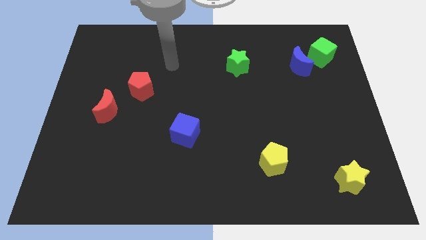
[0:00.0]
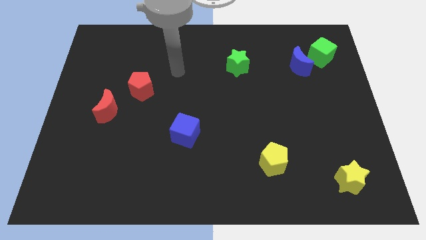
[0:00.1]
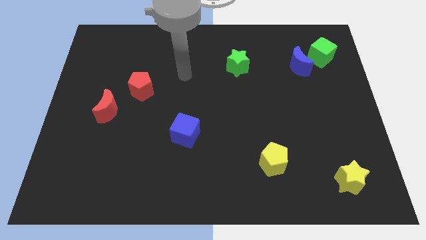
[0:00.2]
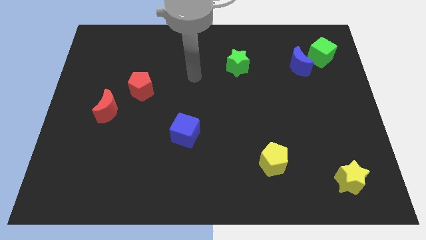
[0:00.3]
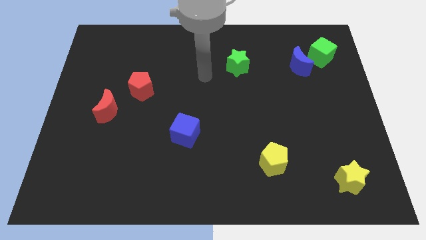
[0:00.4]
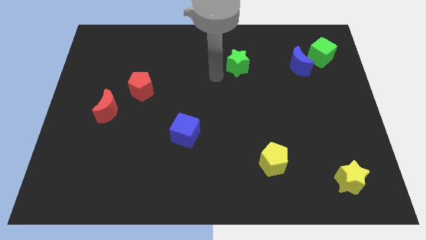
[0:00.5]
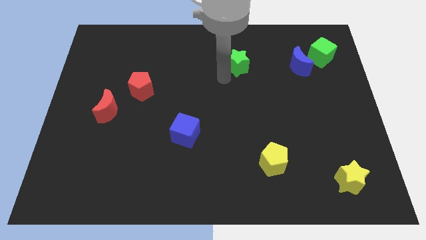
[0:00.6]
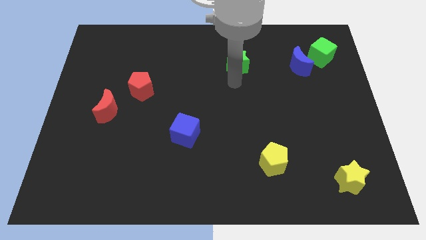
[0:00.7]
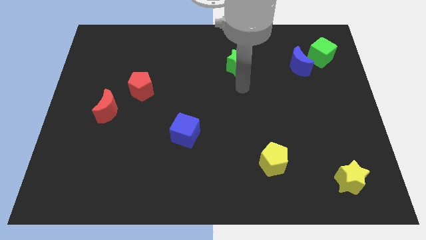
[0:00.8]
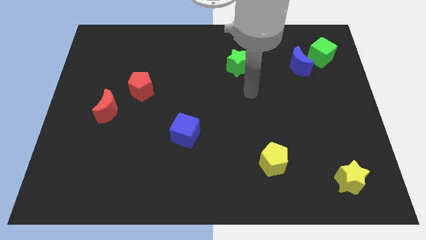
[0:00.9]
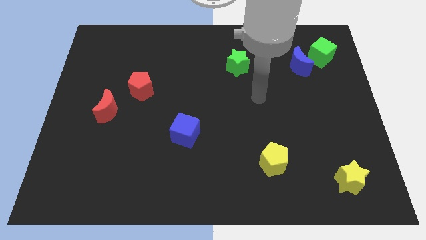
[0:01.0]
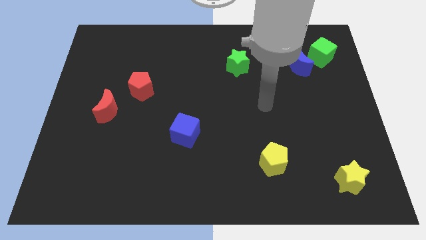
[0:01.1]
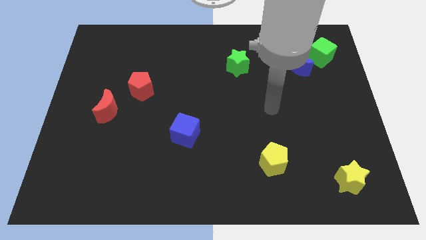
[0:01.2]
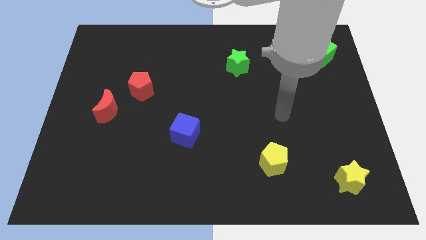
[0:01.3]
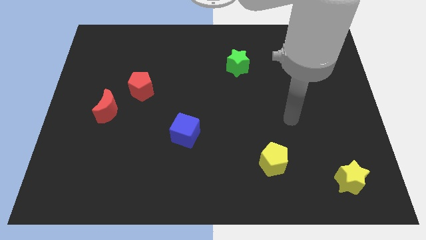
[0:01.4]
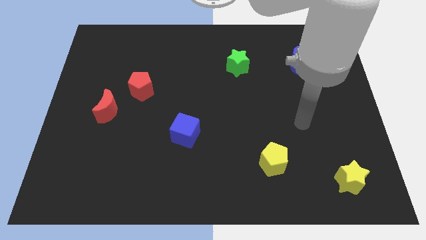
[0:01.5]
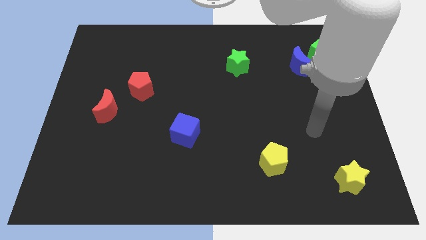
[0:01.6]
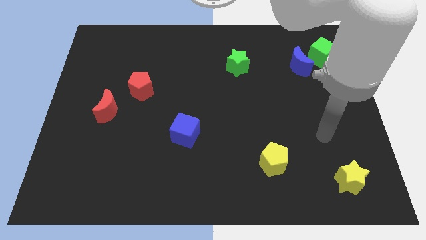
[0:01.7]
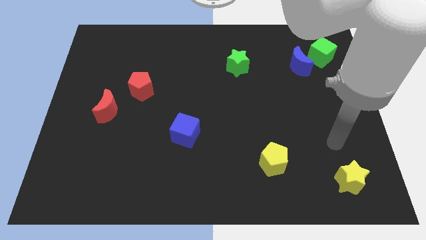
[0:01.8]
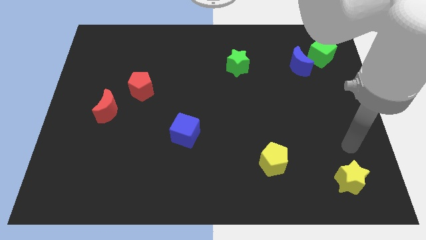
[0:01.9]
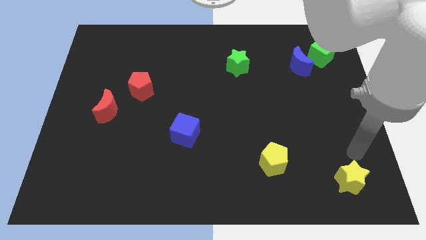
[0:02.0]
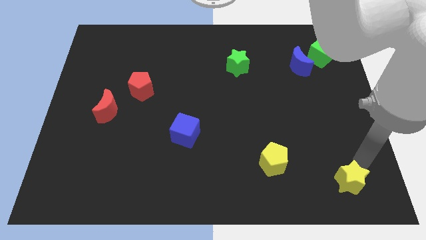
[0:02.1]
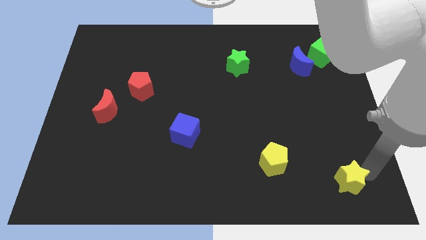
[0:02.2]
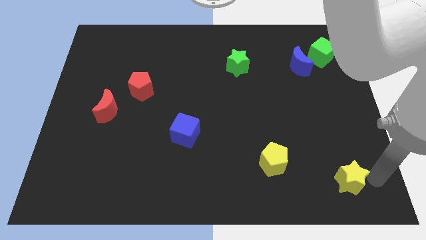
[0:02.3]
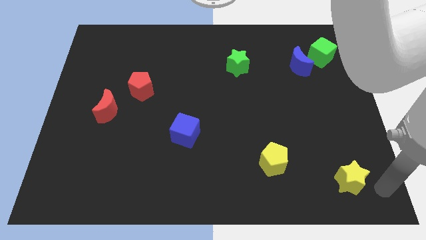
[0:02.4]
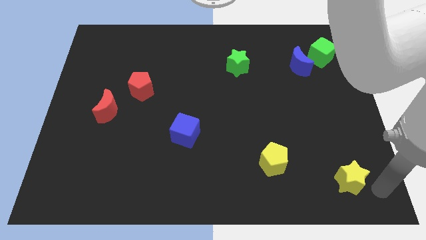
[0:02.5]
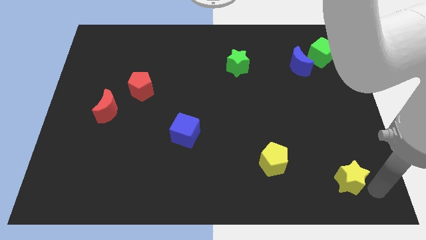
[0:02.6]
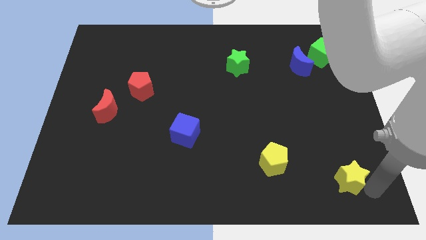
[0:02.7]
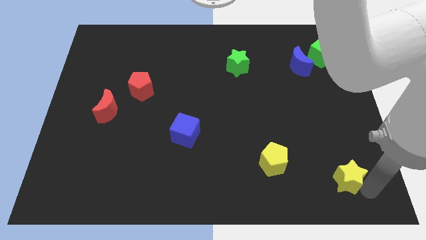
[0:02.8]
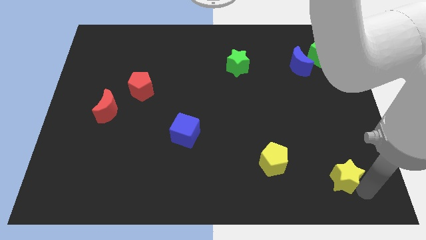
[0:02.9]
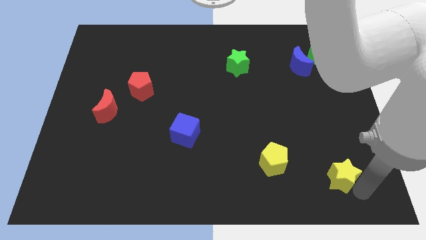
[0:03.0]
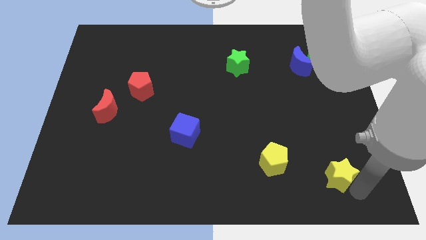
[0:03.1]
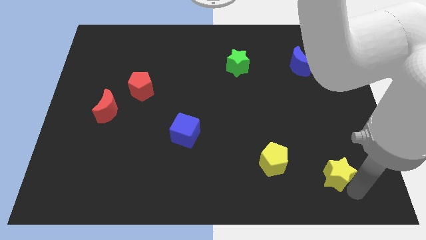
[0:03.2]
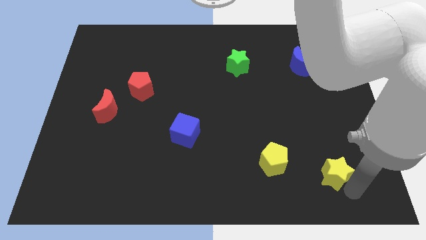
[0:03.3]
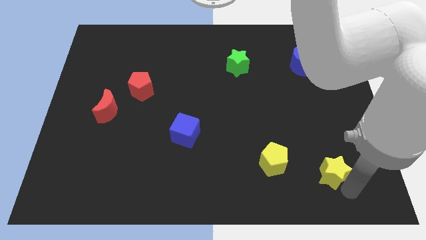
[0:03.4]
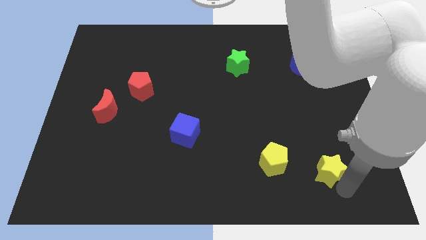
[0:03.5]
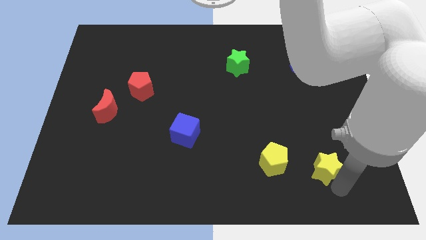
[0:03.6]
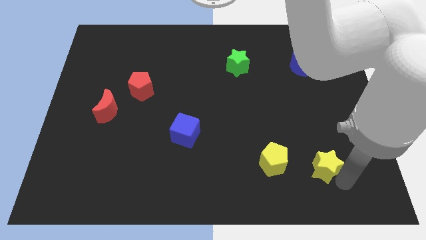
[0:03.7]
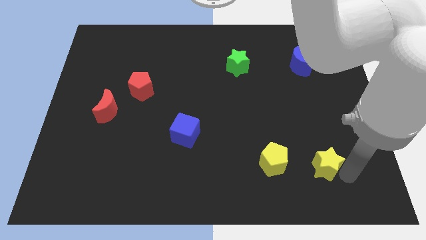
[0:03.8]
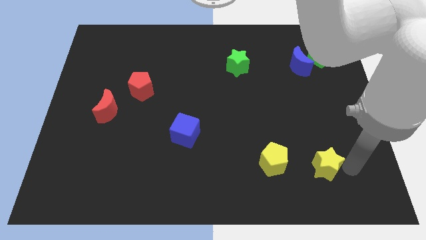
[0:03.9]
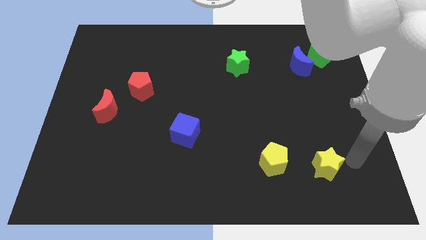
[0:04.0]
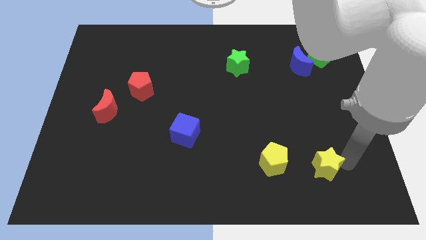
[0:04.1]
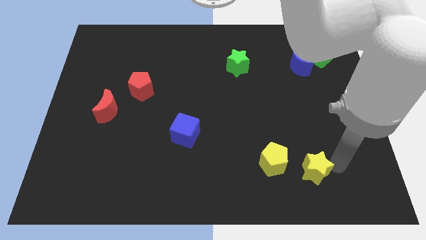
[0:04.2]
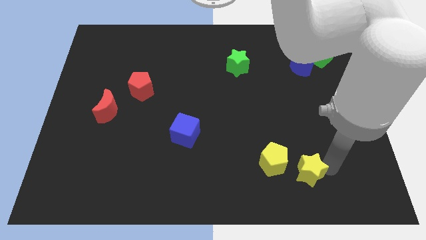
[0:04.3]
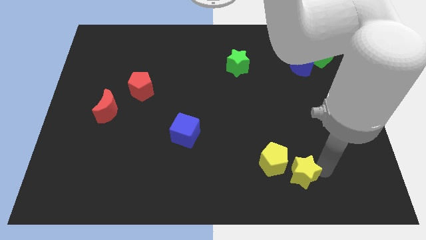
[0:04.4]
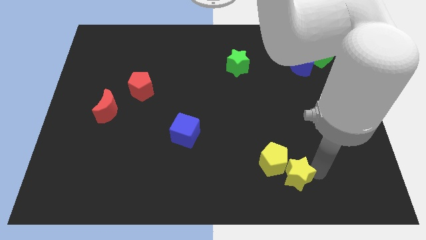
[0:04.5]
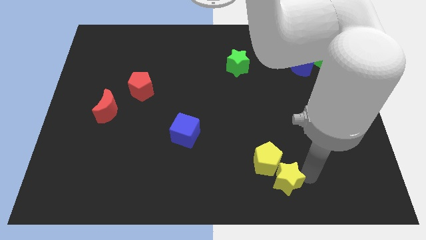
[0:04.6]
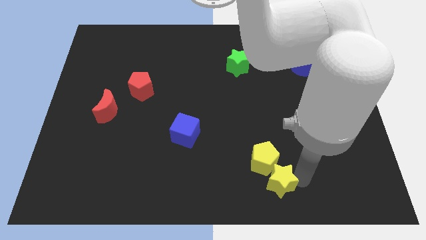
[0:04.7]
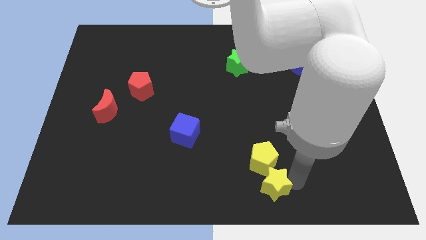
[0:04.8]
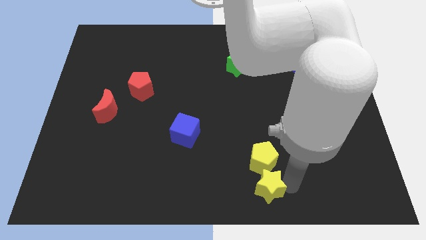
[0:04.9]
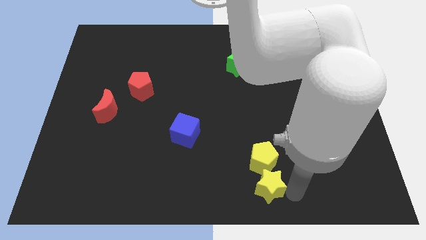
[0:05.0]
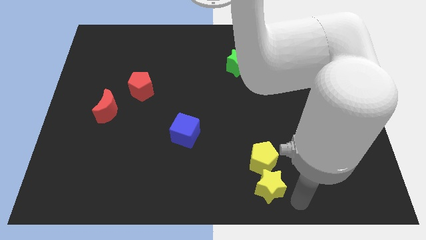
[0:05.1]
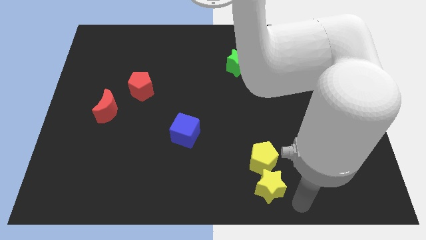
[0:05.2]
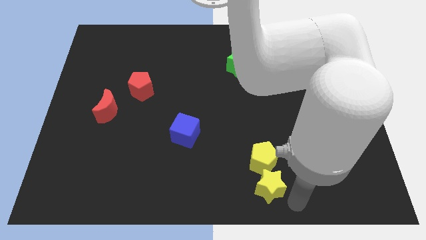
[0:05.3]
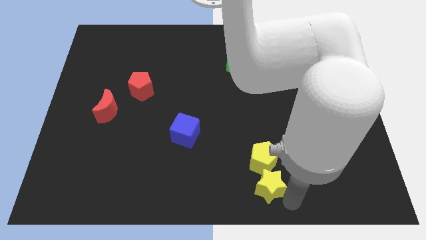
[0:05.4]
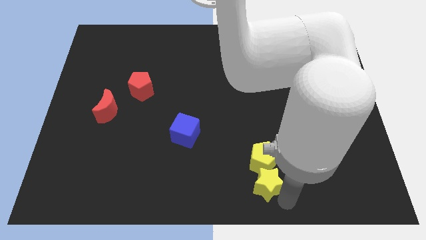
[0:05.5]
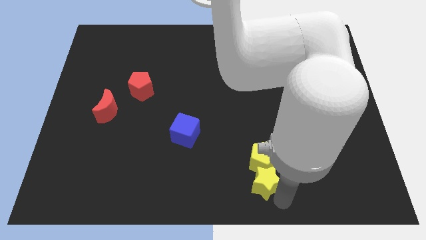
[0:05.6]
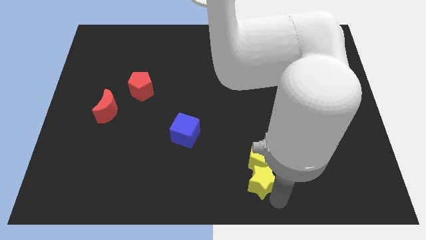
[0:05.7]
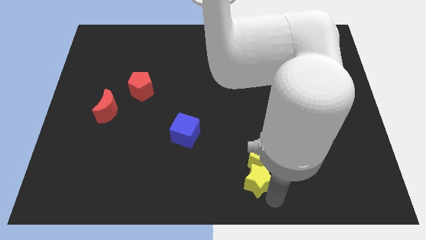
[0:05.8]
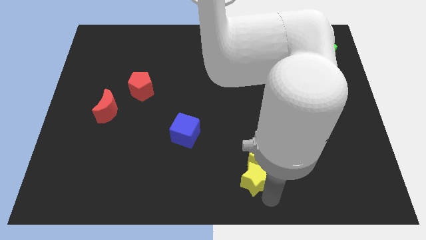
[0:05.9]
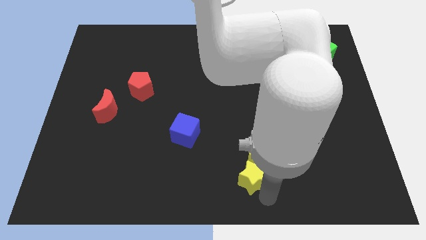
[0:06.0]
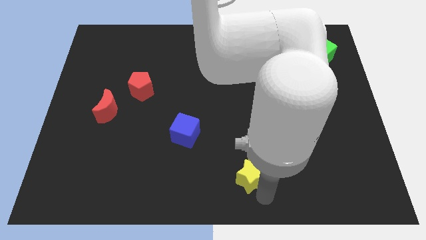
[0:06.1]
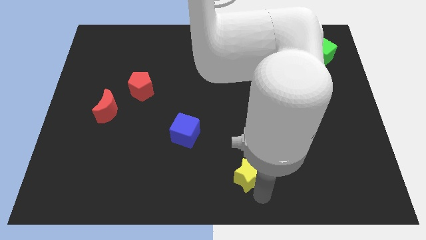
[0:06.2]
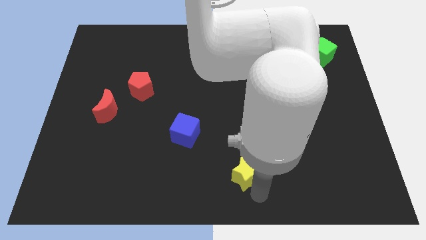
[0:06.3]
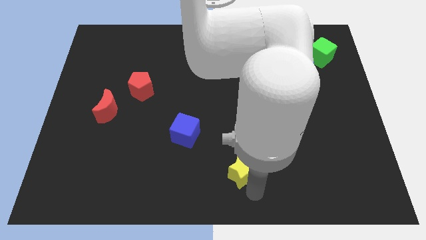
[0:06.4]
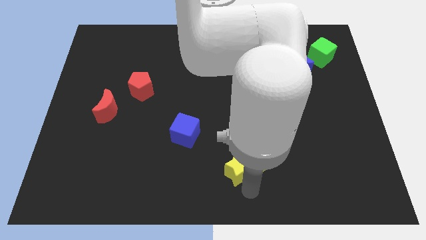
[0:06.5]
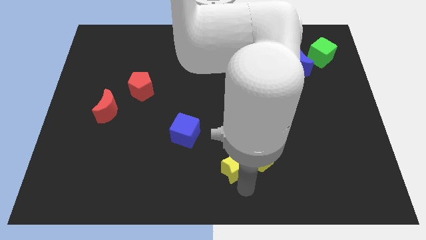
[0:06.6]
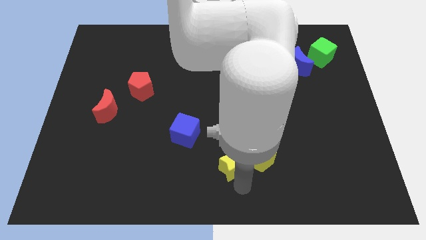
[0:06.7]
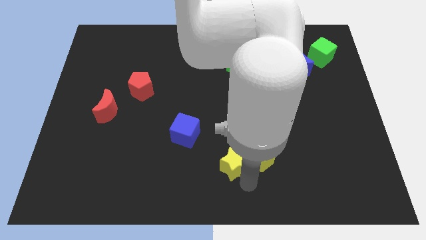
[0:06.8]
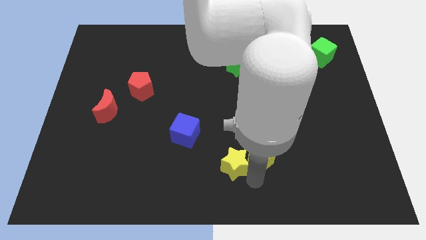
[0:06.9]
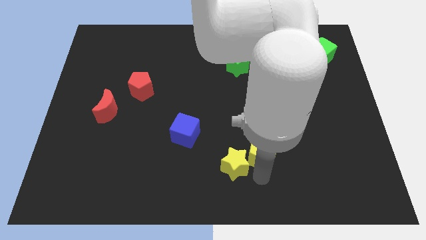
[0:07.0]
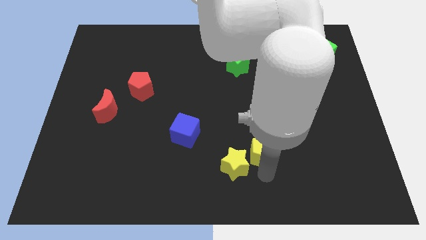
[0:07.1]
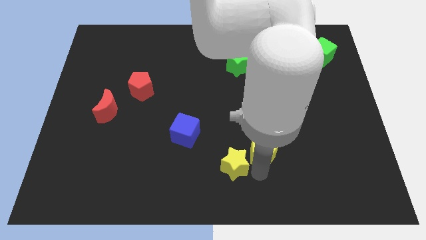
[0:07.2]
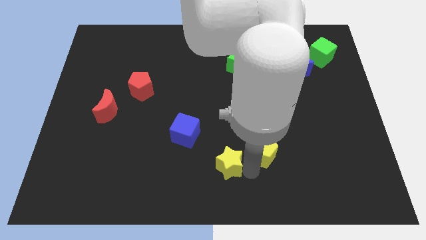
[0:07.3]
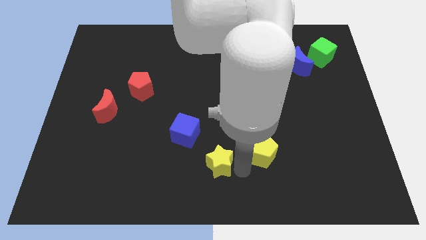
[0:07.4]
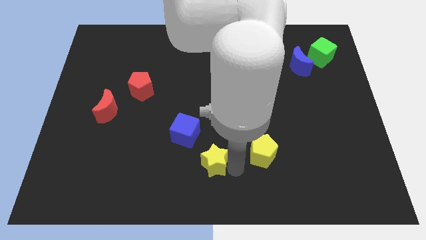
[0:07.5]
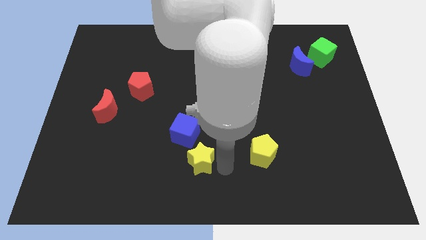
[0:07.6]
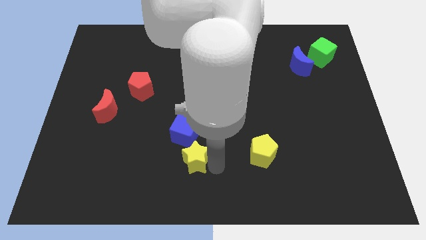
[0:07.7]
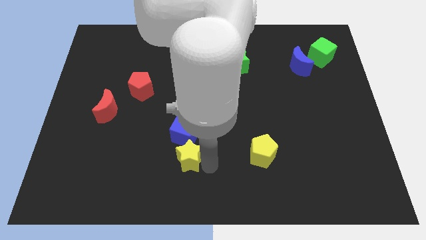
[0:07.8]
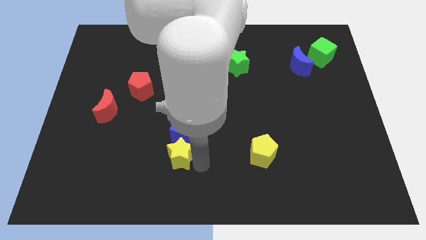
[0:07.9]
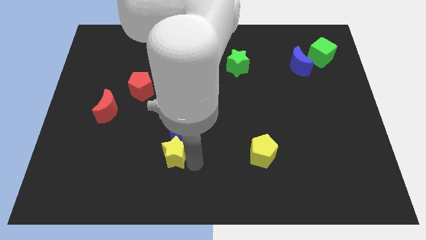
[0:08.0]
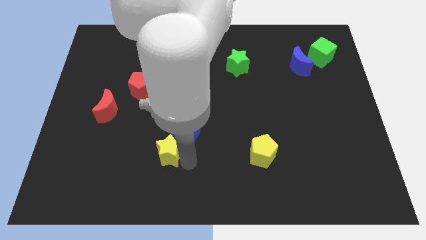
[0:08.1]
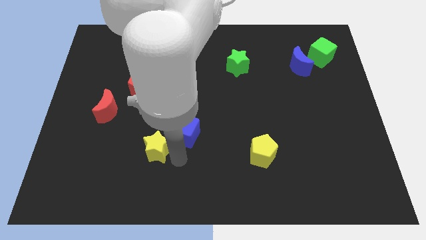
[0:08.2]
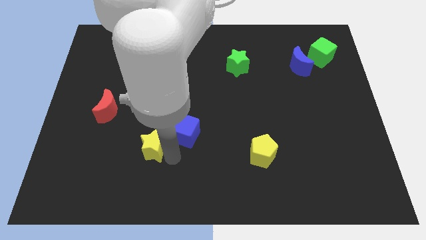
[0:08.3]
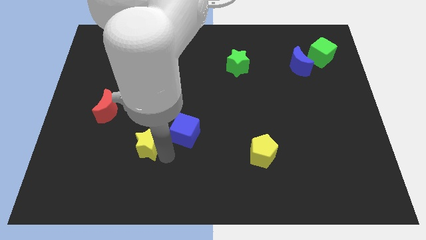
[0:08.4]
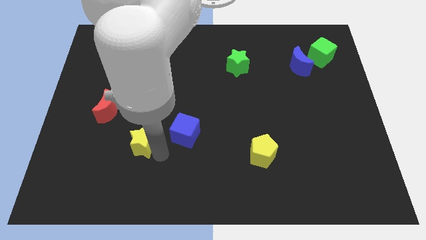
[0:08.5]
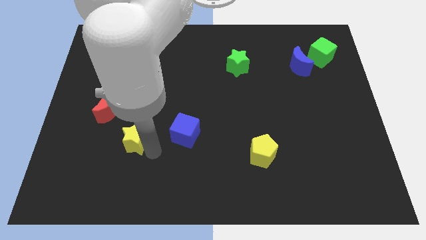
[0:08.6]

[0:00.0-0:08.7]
put the yellow star diagonally down and to the right of the red moon
